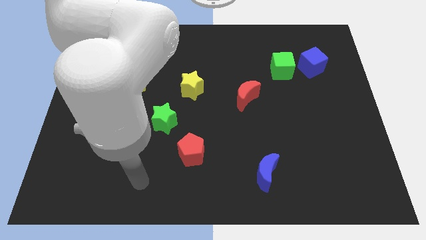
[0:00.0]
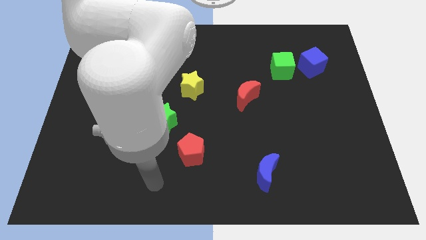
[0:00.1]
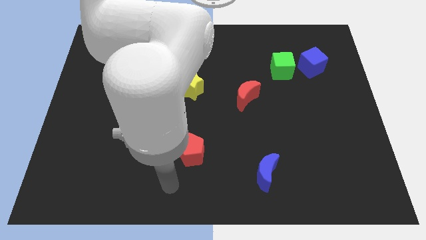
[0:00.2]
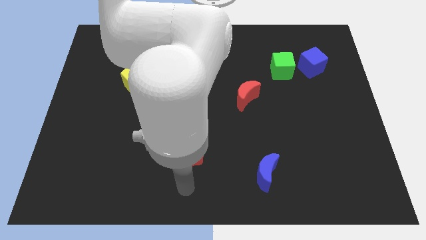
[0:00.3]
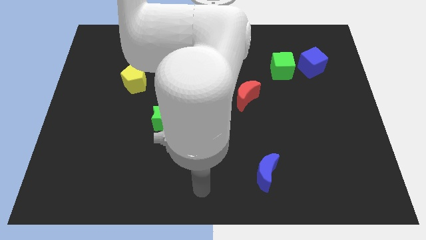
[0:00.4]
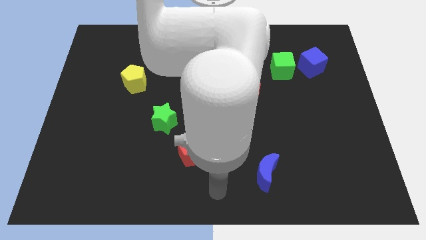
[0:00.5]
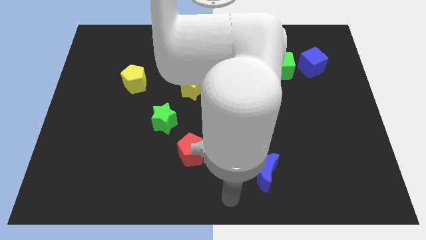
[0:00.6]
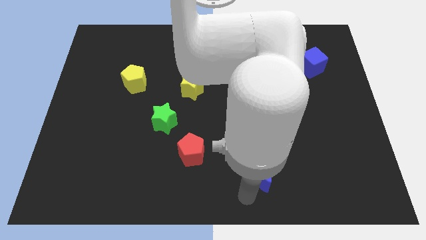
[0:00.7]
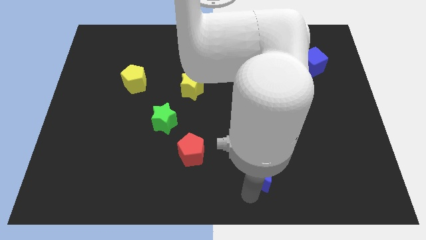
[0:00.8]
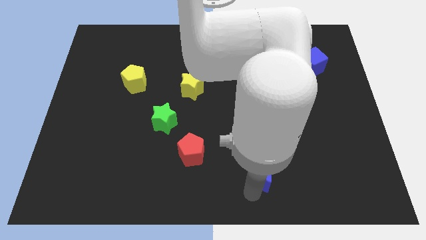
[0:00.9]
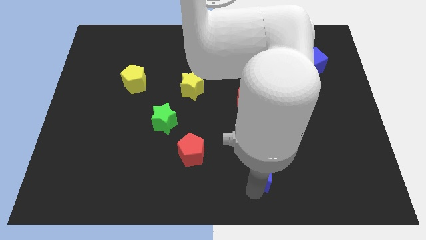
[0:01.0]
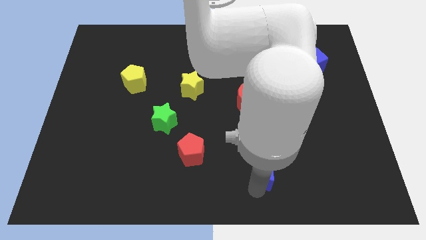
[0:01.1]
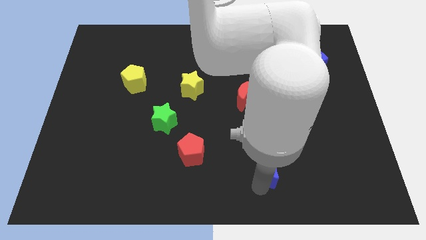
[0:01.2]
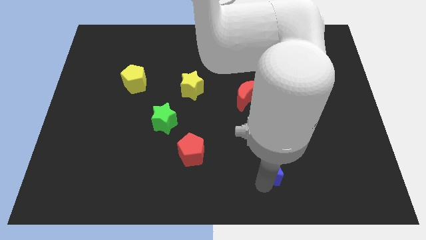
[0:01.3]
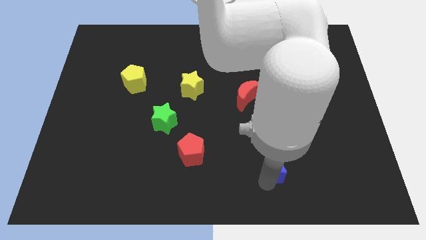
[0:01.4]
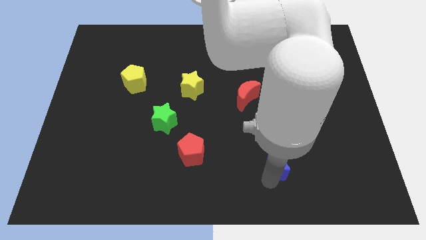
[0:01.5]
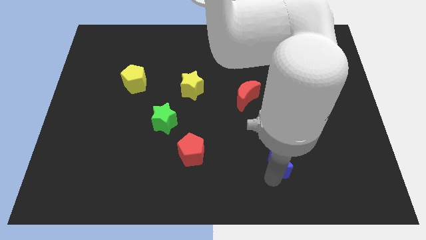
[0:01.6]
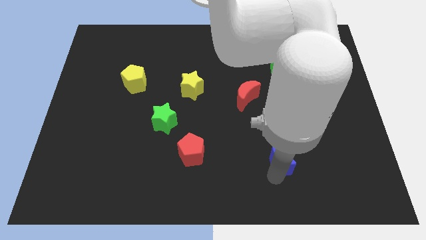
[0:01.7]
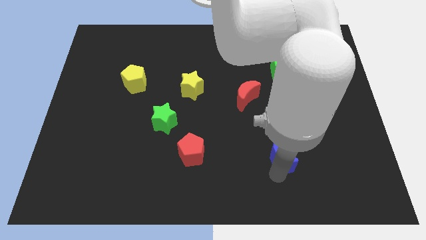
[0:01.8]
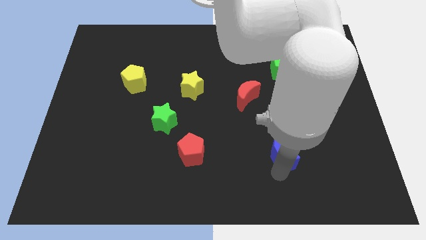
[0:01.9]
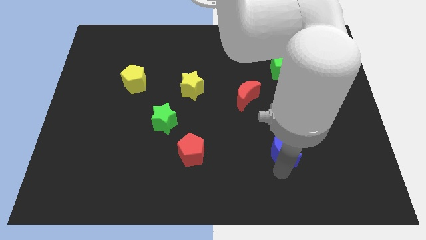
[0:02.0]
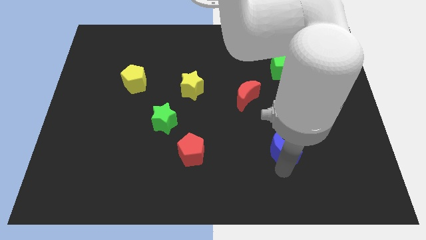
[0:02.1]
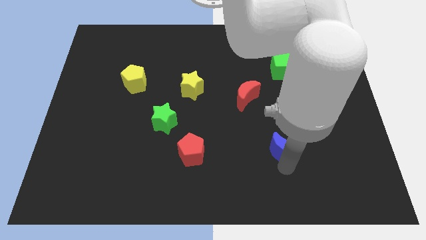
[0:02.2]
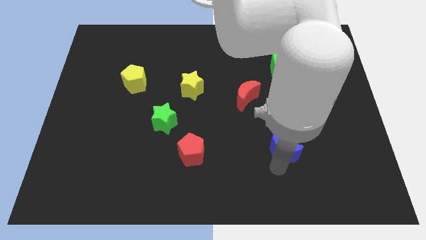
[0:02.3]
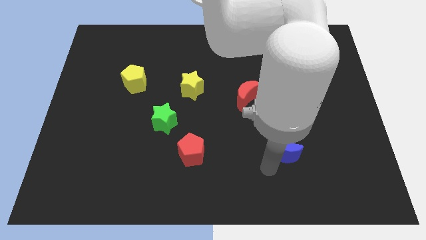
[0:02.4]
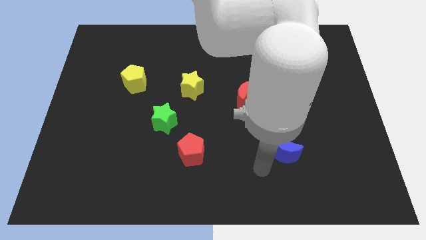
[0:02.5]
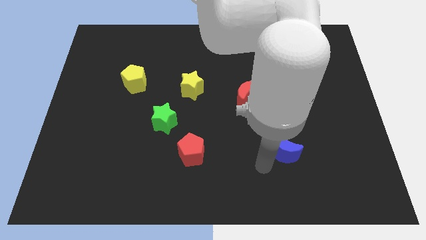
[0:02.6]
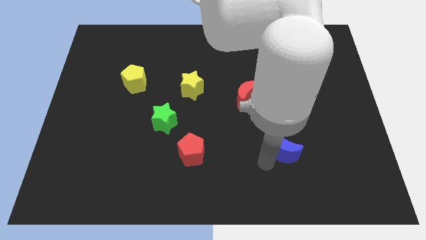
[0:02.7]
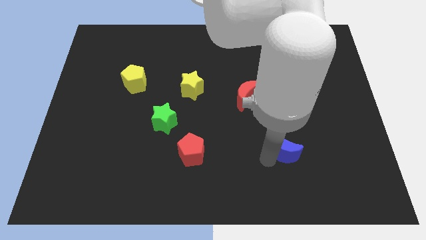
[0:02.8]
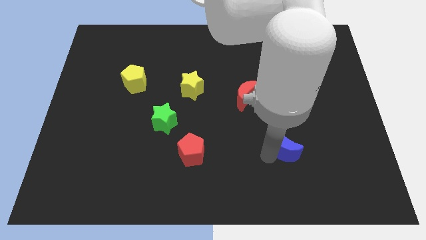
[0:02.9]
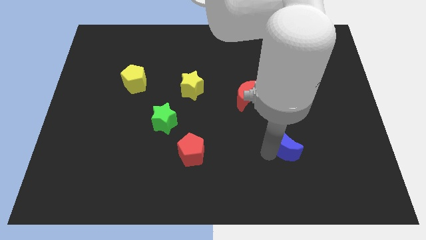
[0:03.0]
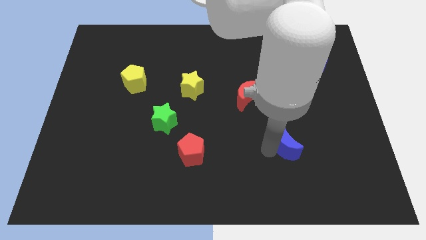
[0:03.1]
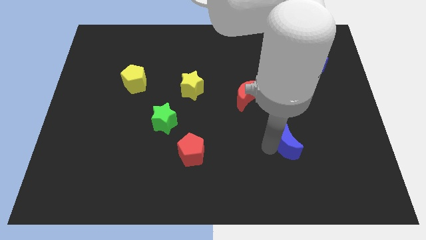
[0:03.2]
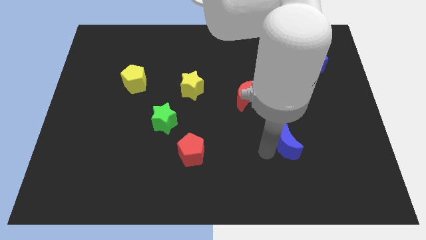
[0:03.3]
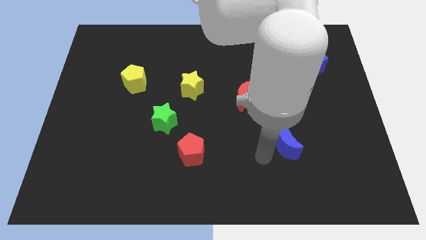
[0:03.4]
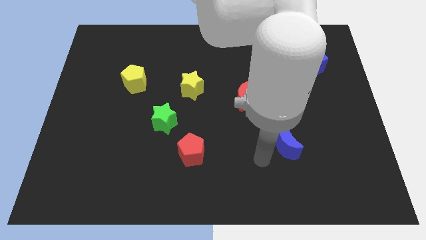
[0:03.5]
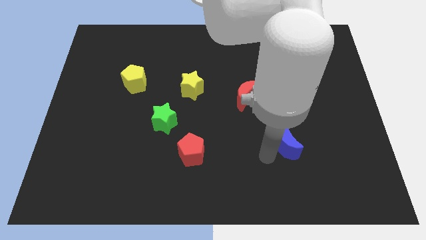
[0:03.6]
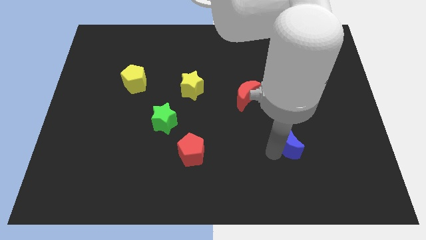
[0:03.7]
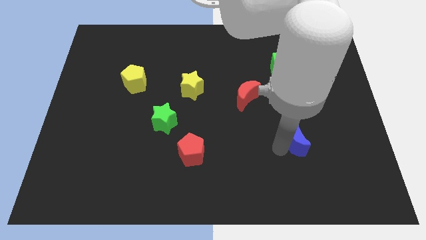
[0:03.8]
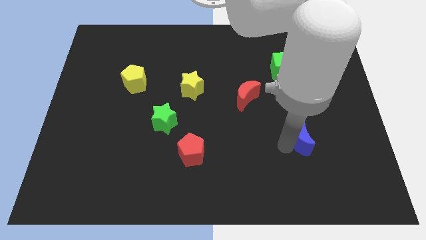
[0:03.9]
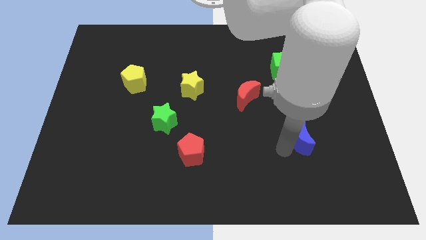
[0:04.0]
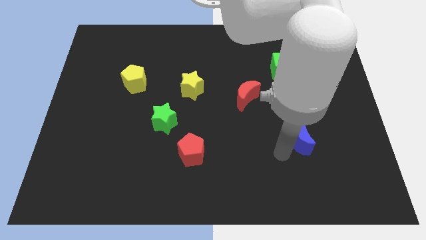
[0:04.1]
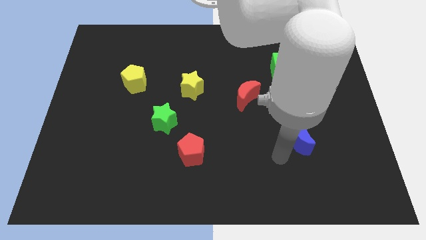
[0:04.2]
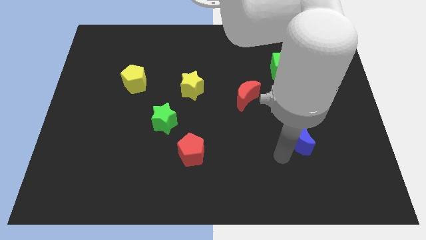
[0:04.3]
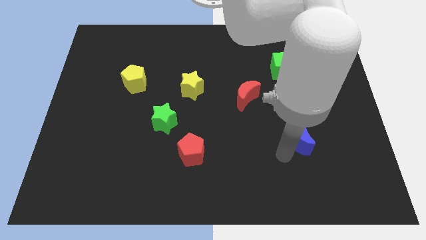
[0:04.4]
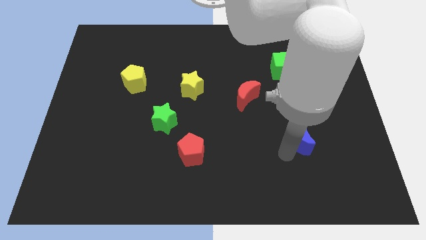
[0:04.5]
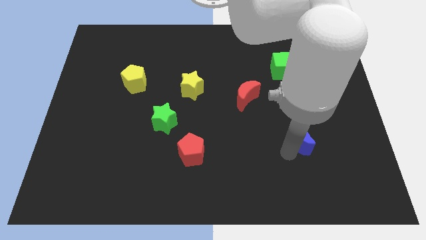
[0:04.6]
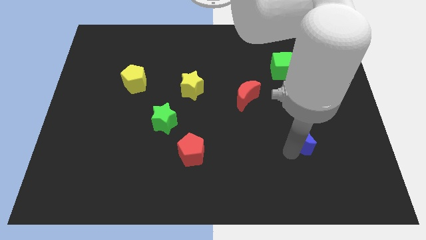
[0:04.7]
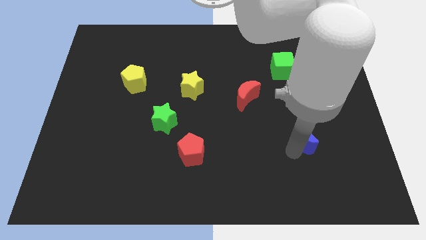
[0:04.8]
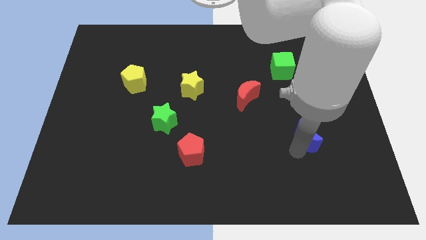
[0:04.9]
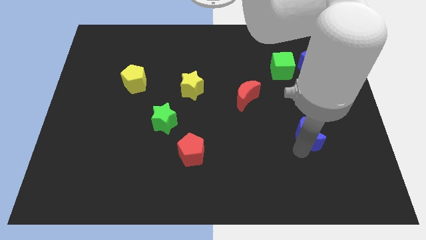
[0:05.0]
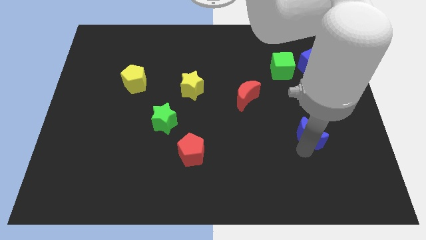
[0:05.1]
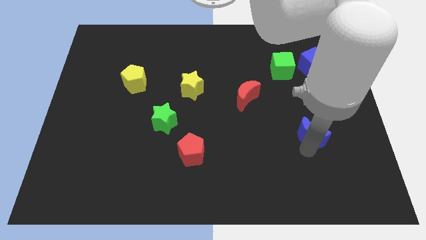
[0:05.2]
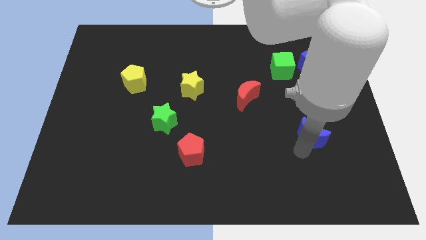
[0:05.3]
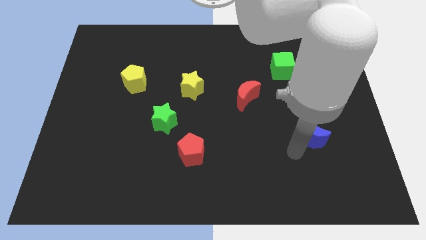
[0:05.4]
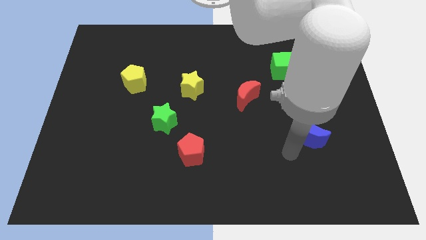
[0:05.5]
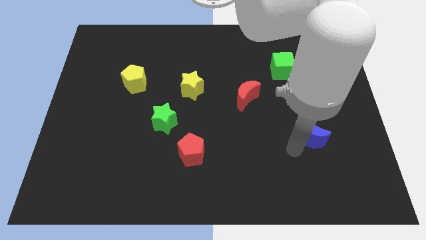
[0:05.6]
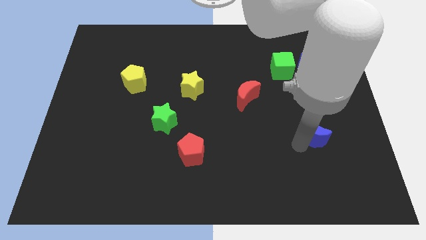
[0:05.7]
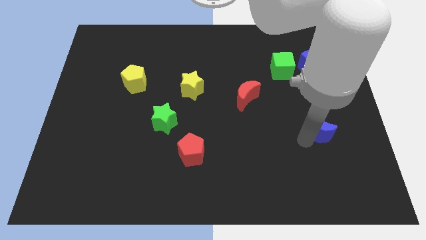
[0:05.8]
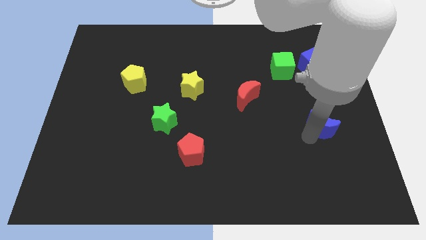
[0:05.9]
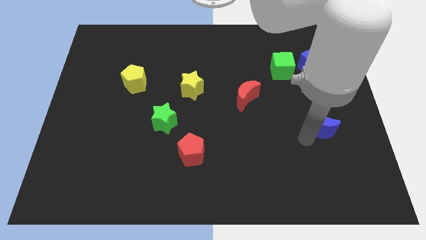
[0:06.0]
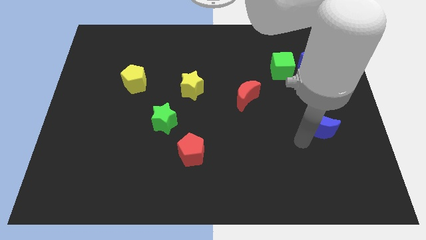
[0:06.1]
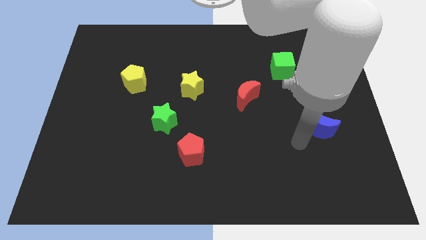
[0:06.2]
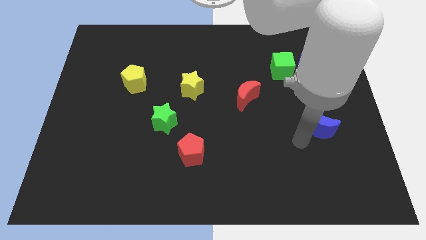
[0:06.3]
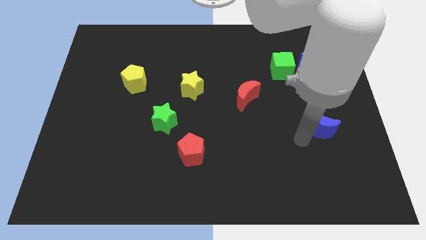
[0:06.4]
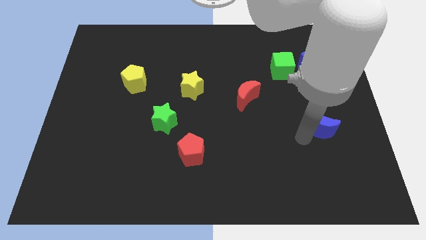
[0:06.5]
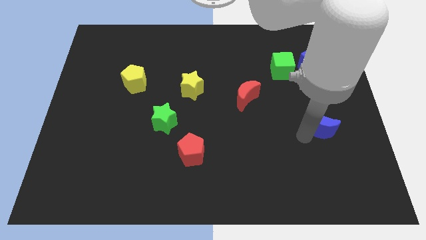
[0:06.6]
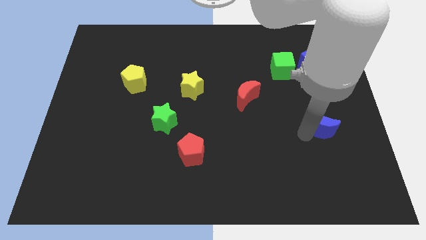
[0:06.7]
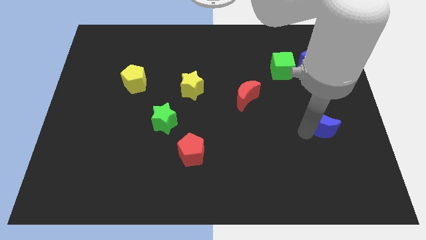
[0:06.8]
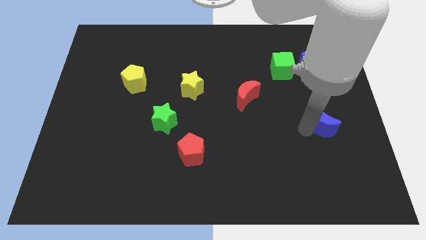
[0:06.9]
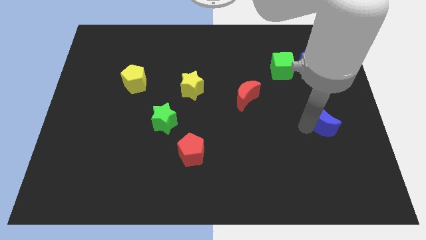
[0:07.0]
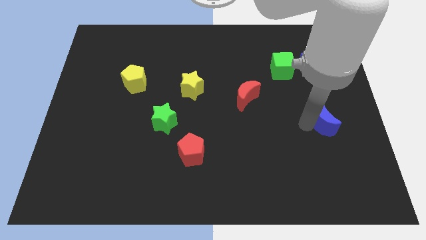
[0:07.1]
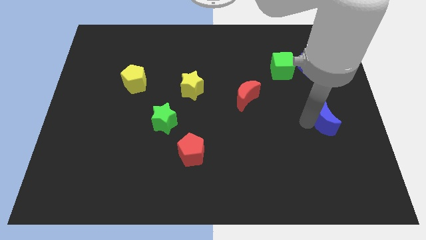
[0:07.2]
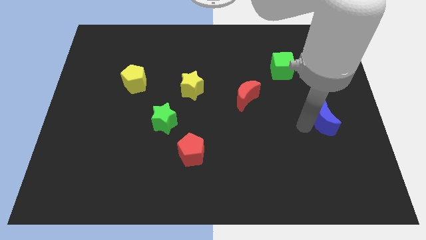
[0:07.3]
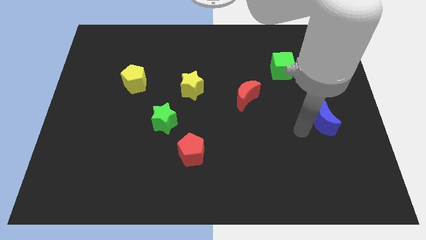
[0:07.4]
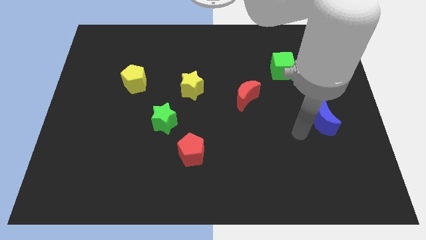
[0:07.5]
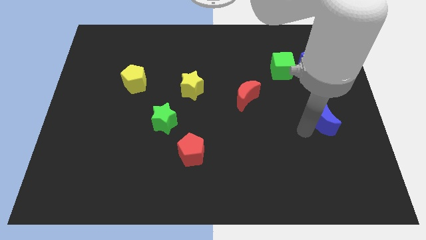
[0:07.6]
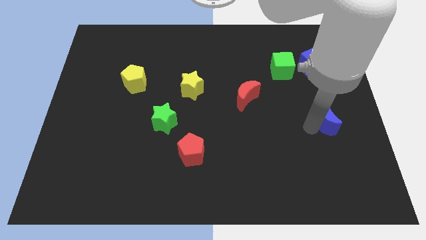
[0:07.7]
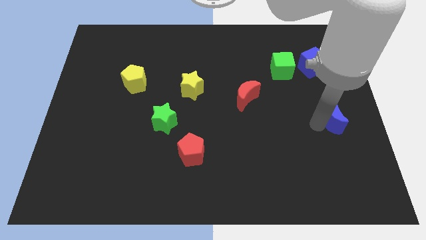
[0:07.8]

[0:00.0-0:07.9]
slide the blue moon to the center right
